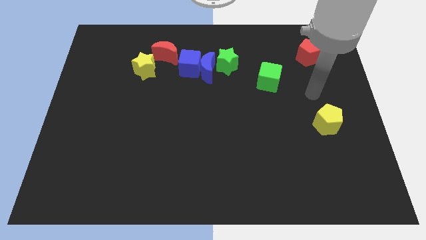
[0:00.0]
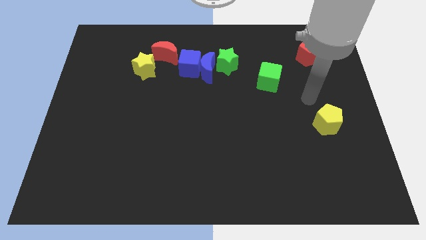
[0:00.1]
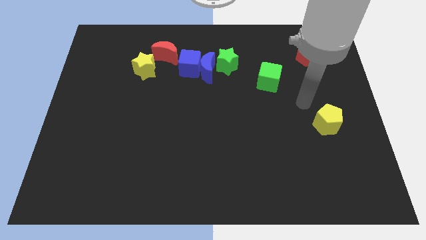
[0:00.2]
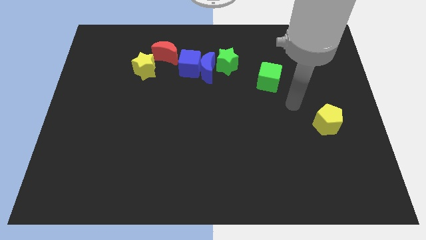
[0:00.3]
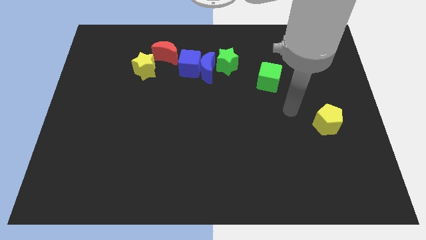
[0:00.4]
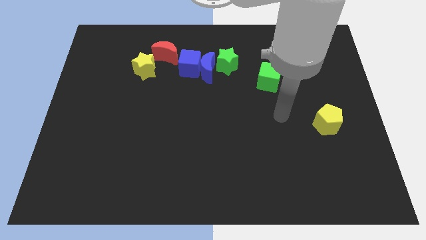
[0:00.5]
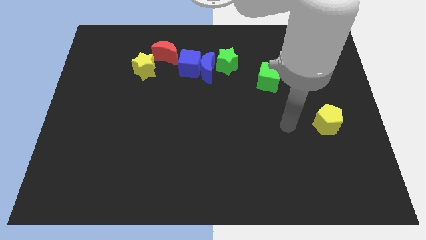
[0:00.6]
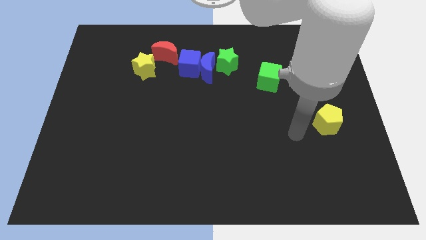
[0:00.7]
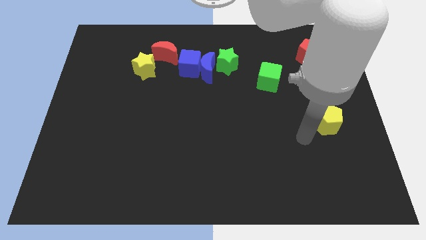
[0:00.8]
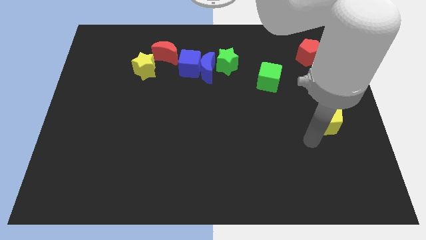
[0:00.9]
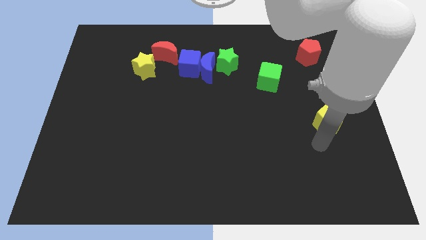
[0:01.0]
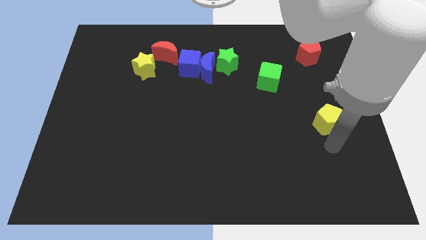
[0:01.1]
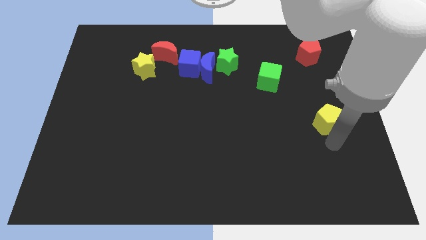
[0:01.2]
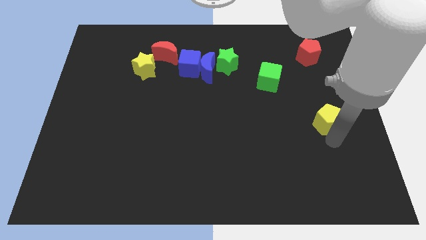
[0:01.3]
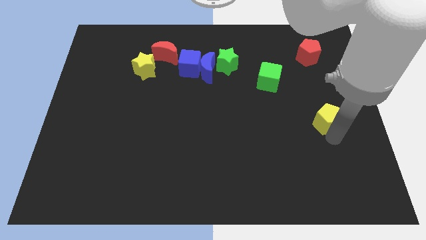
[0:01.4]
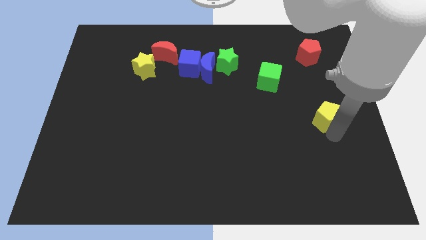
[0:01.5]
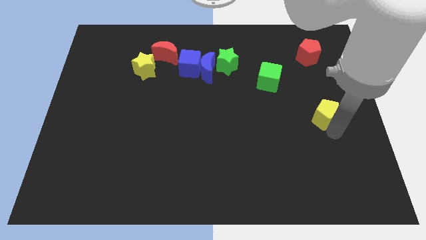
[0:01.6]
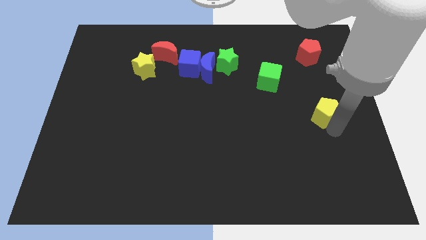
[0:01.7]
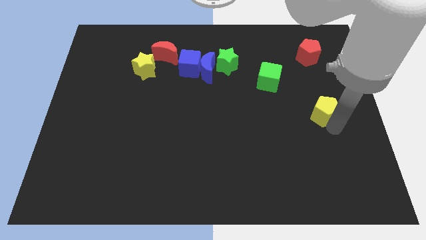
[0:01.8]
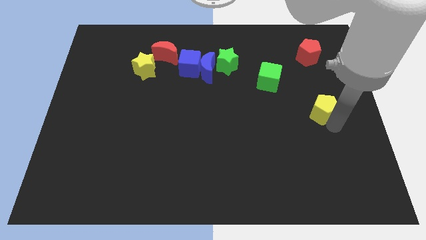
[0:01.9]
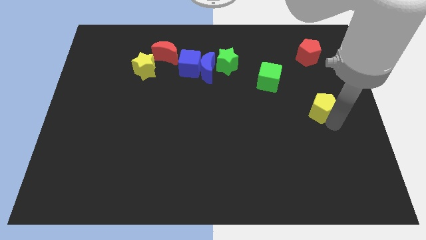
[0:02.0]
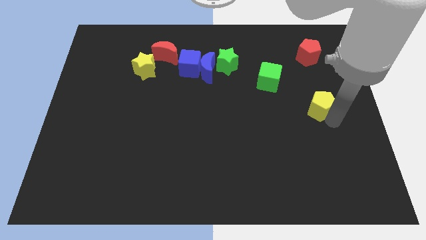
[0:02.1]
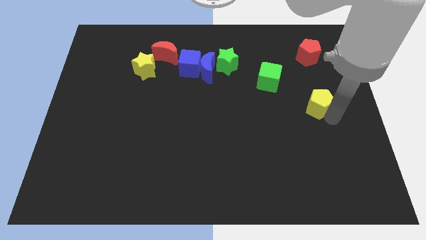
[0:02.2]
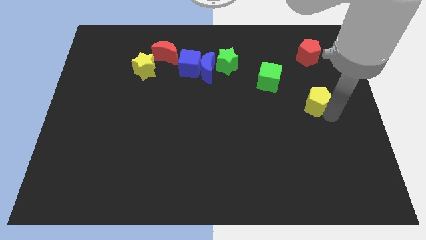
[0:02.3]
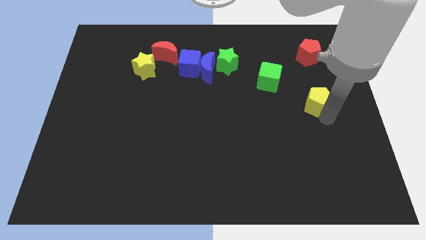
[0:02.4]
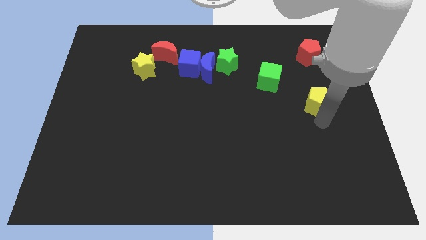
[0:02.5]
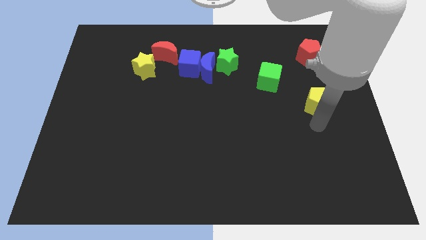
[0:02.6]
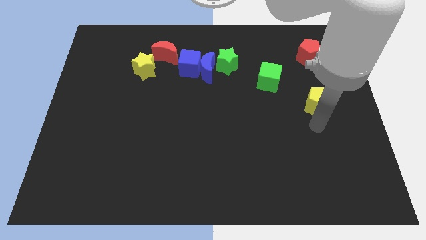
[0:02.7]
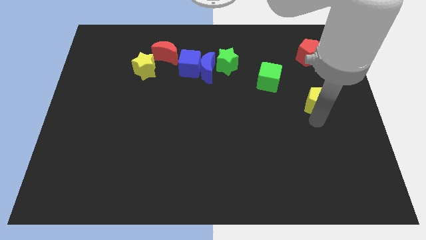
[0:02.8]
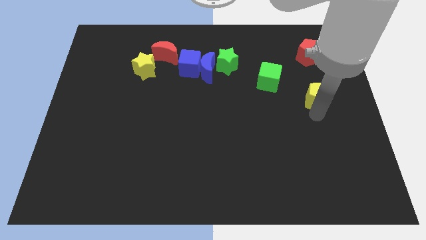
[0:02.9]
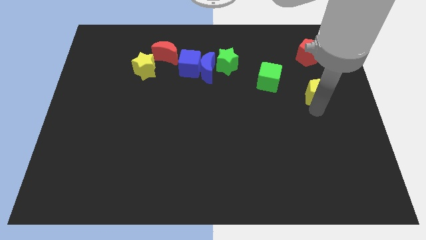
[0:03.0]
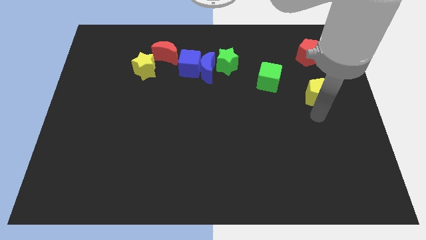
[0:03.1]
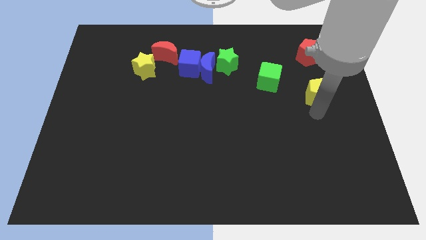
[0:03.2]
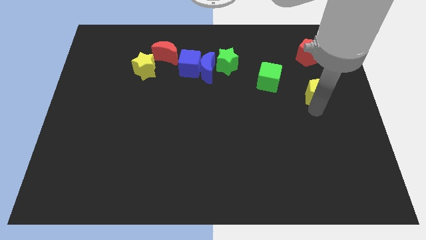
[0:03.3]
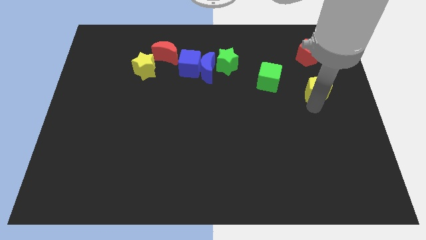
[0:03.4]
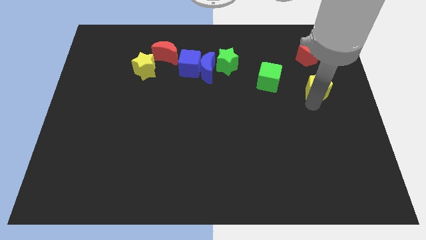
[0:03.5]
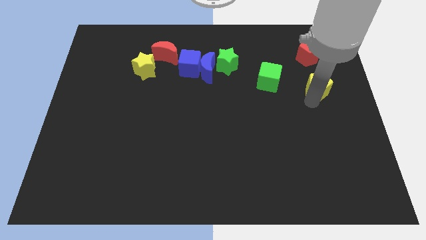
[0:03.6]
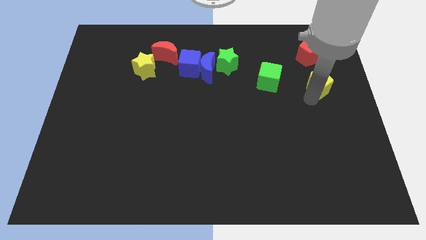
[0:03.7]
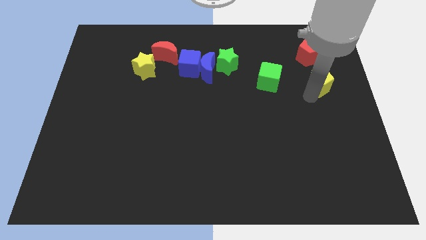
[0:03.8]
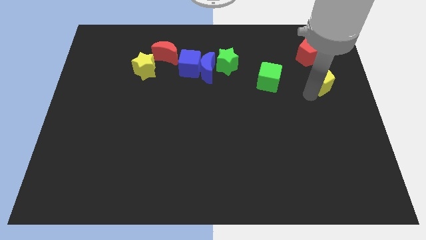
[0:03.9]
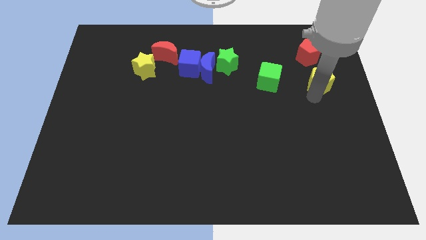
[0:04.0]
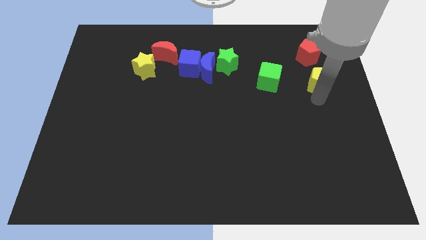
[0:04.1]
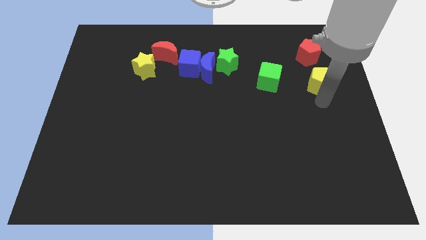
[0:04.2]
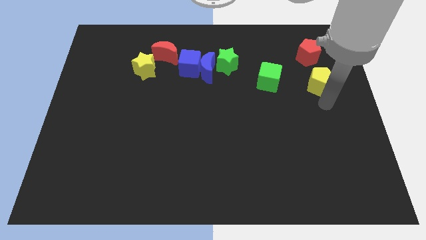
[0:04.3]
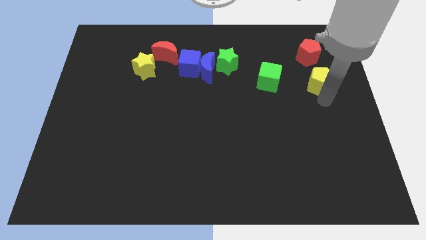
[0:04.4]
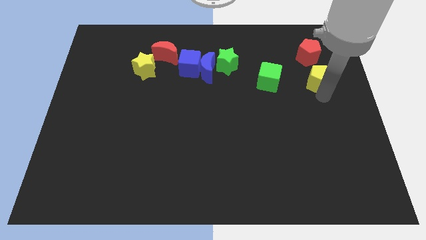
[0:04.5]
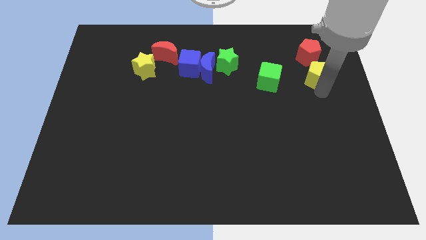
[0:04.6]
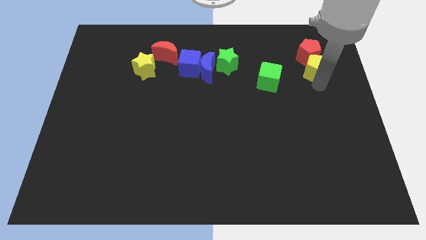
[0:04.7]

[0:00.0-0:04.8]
push the yellow pentagon next to the red pentagon

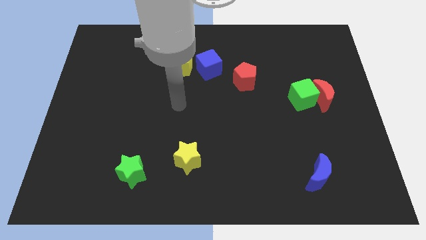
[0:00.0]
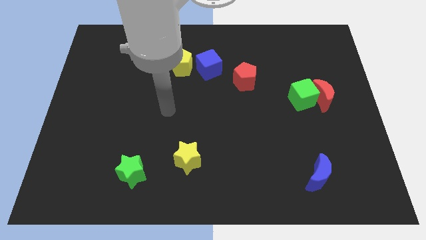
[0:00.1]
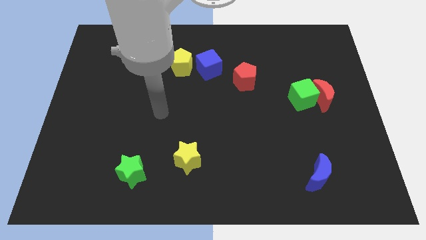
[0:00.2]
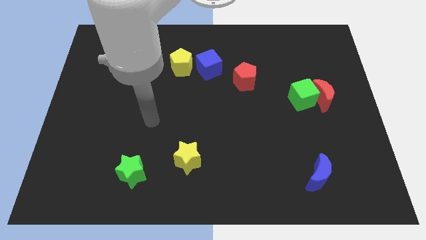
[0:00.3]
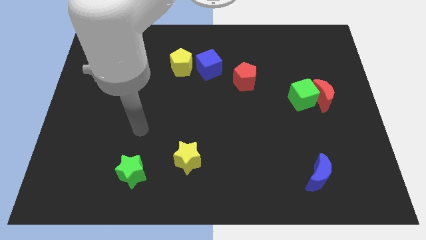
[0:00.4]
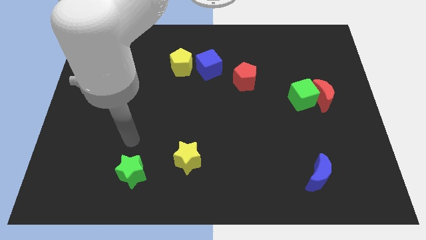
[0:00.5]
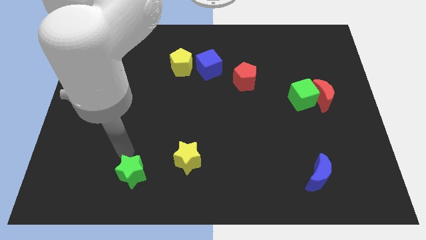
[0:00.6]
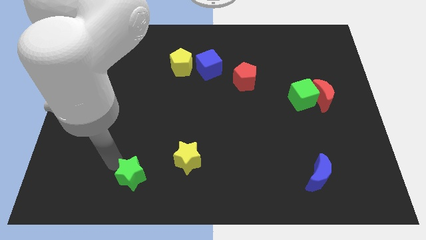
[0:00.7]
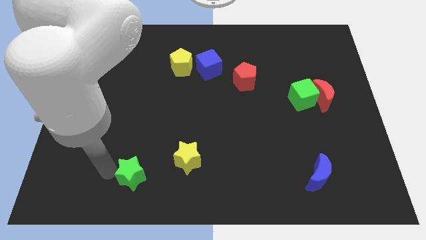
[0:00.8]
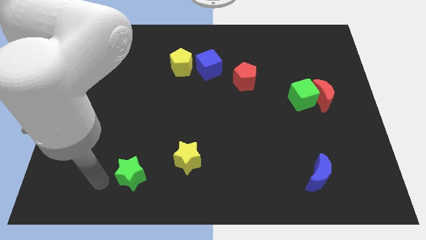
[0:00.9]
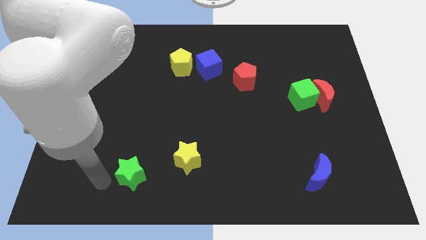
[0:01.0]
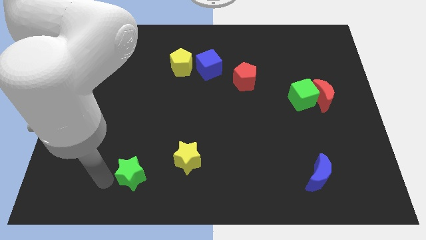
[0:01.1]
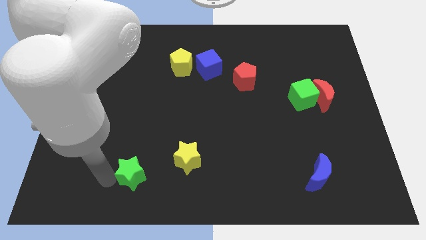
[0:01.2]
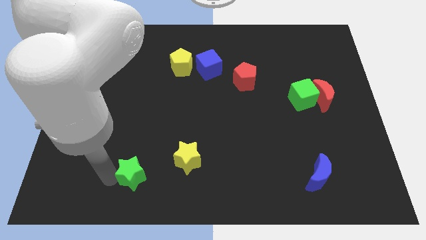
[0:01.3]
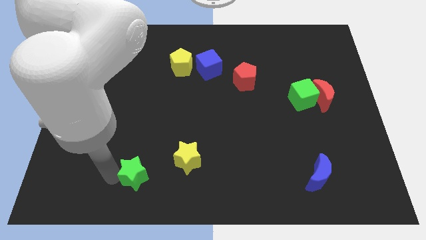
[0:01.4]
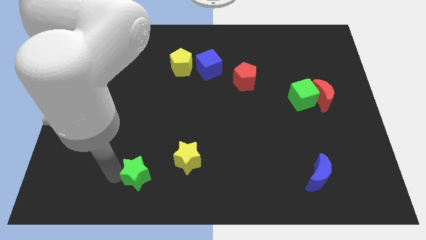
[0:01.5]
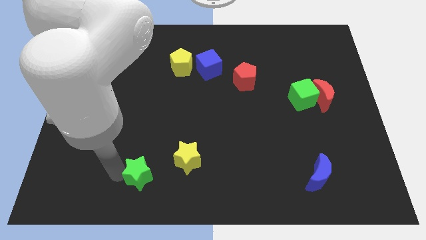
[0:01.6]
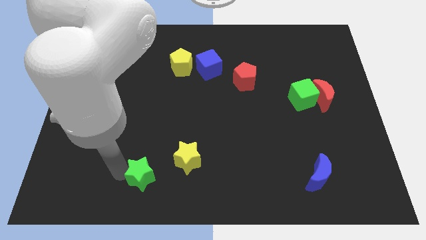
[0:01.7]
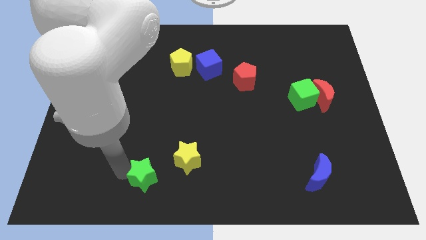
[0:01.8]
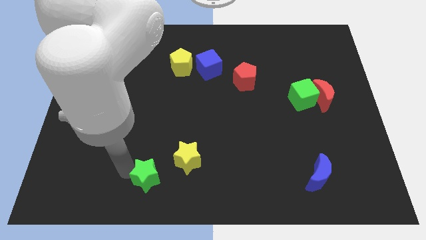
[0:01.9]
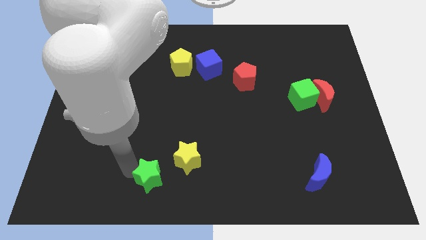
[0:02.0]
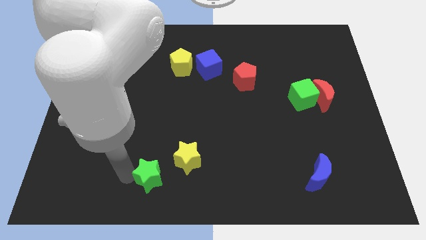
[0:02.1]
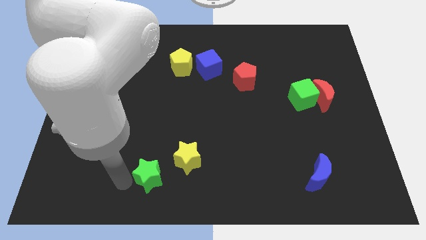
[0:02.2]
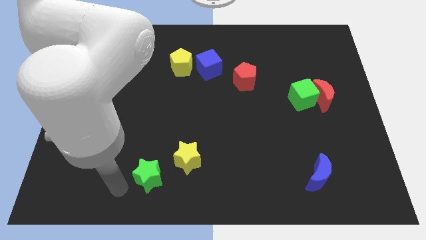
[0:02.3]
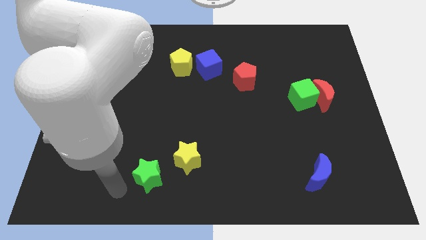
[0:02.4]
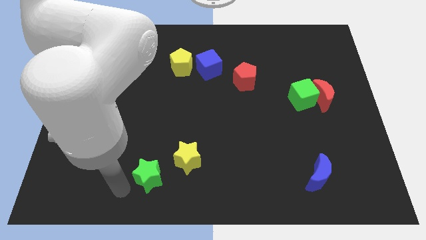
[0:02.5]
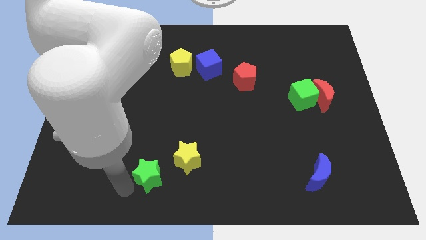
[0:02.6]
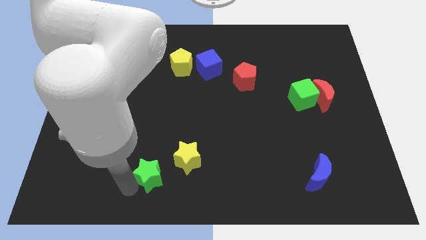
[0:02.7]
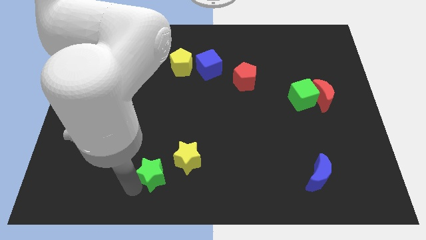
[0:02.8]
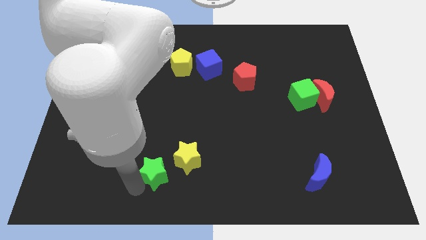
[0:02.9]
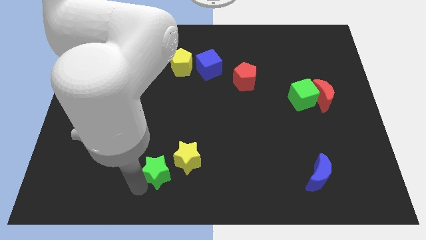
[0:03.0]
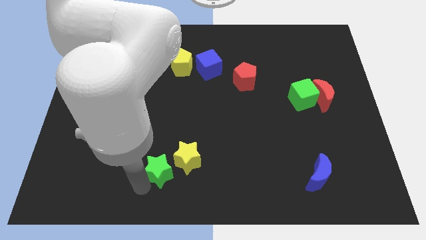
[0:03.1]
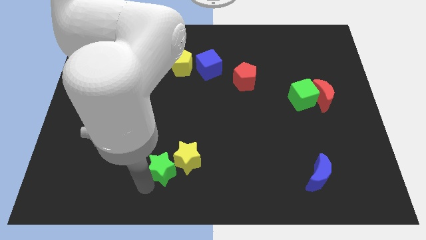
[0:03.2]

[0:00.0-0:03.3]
move the green star to the yellow star
